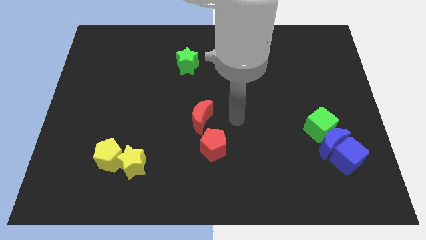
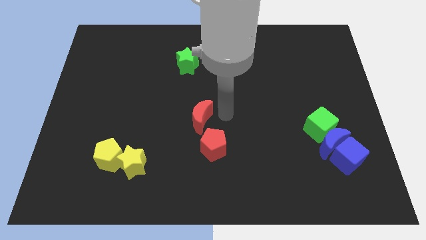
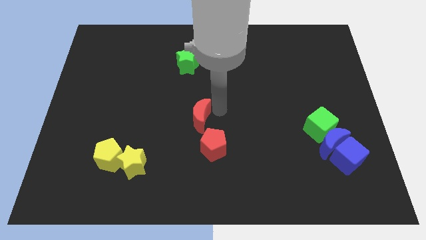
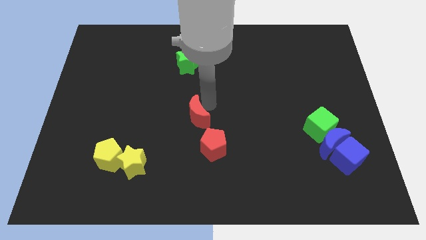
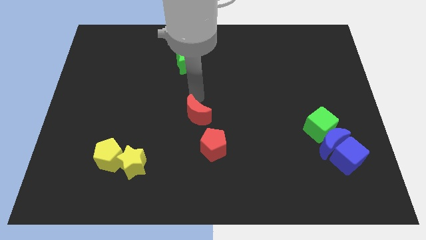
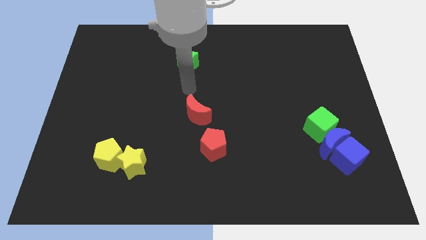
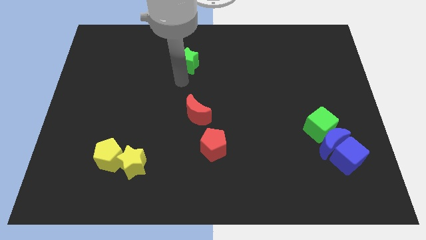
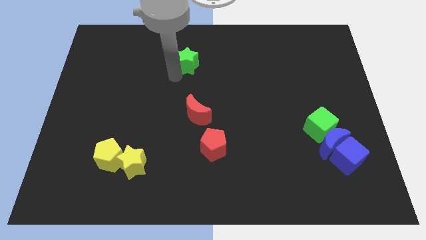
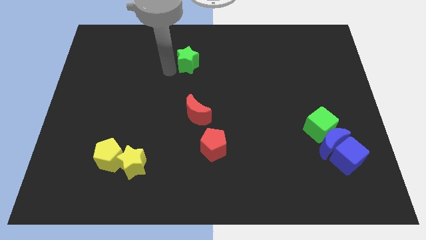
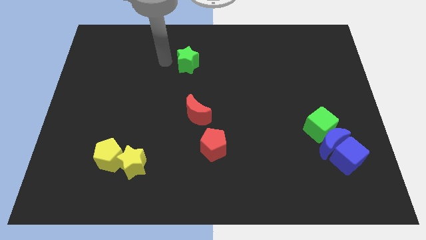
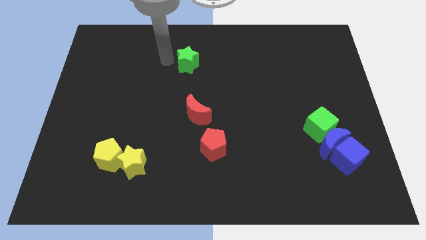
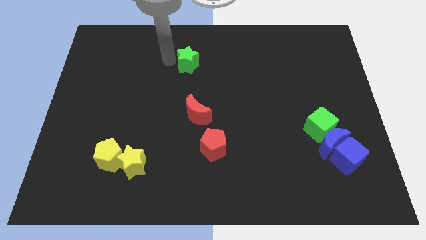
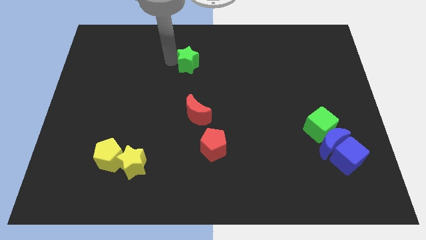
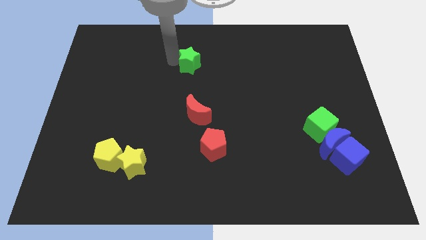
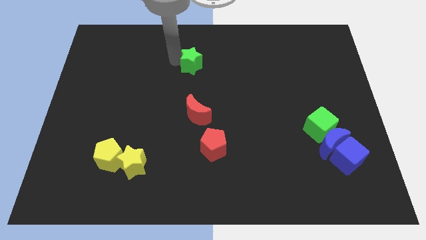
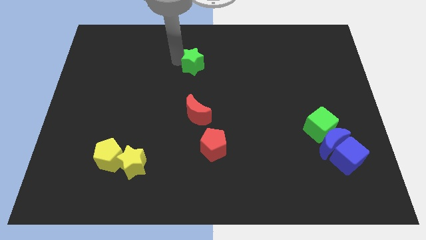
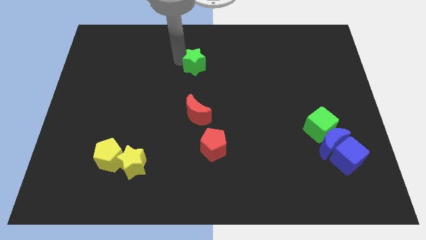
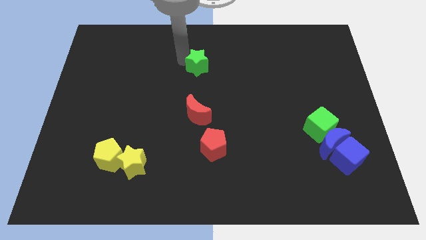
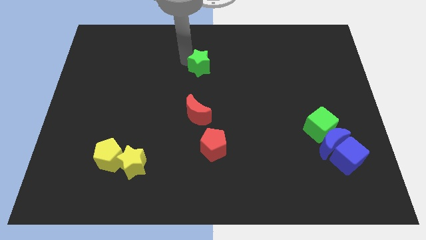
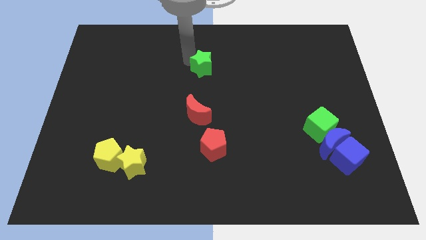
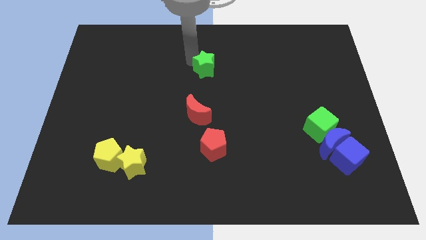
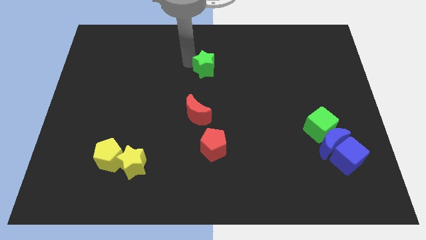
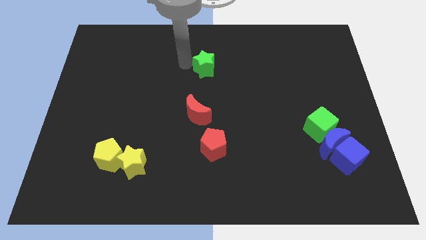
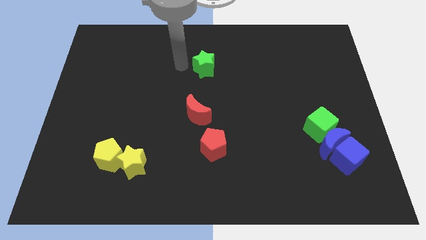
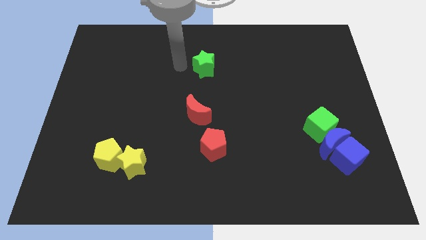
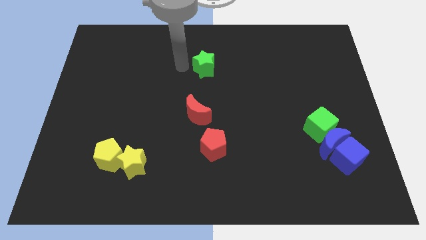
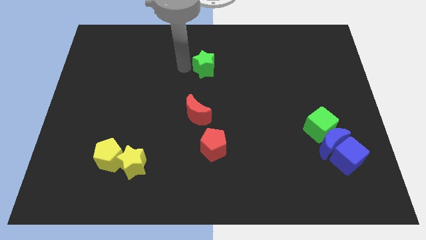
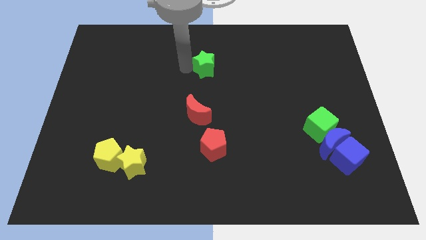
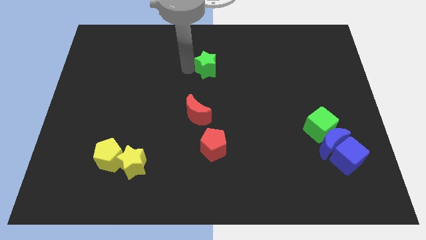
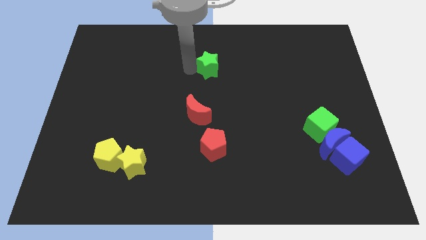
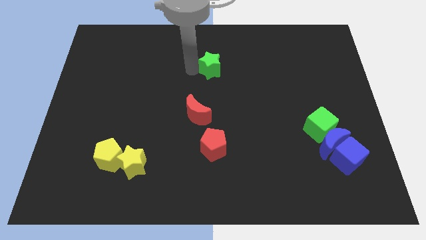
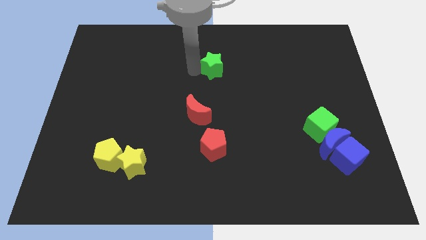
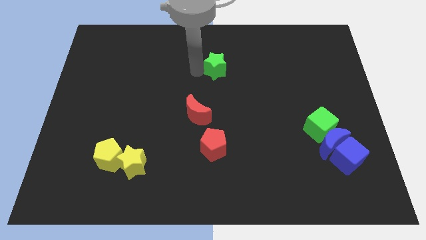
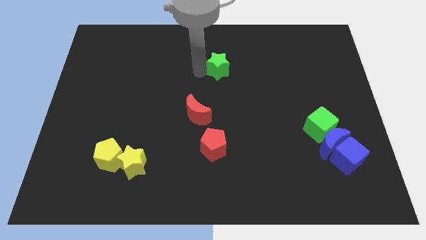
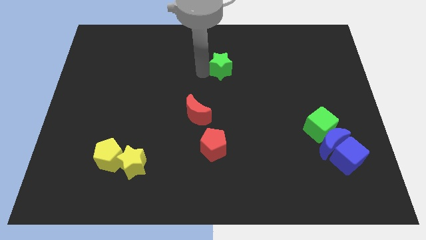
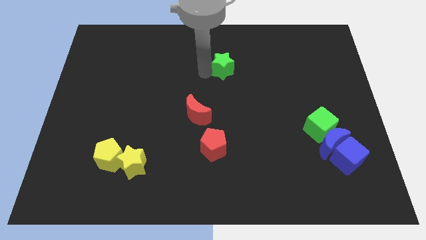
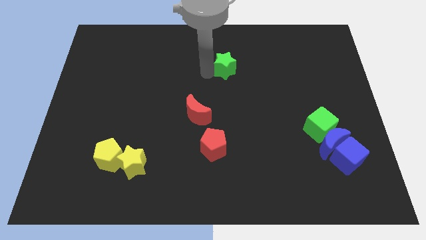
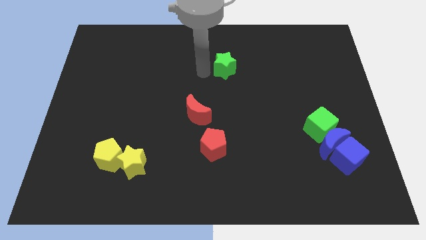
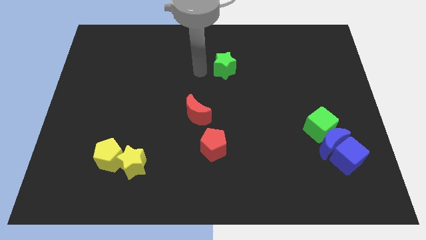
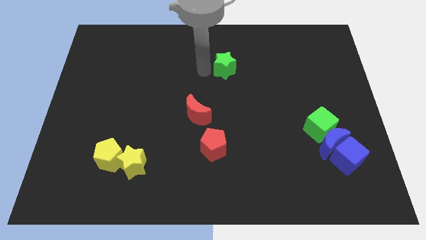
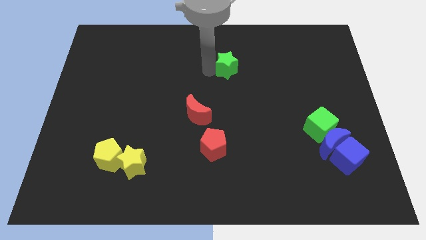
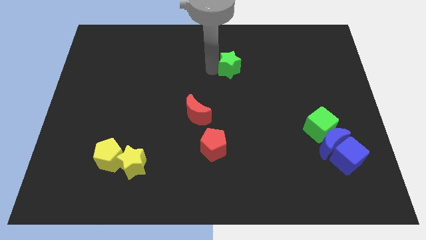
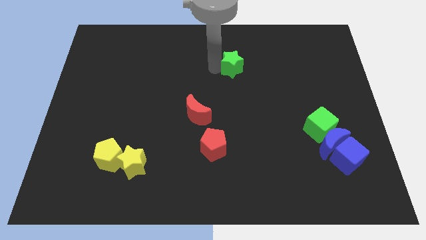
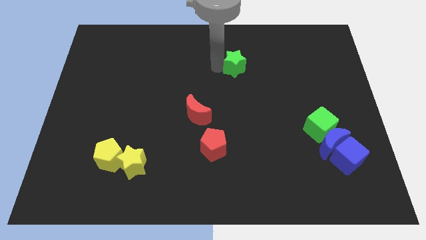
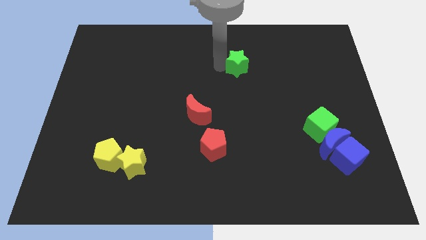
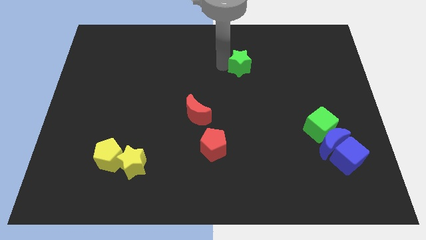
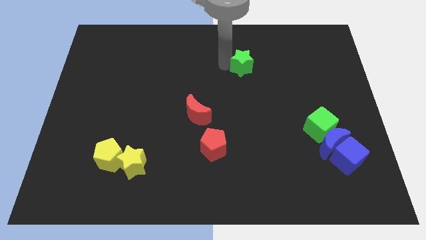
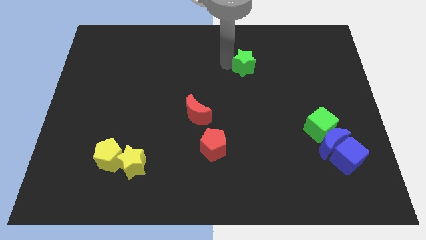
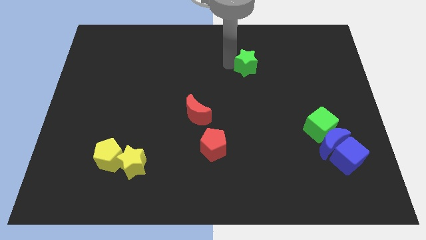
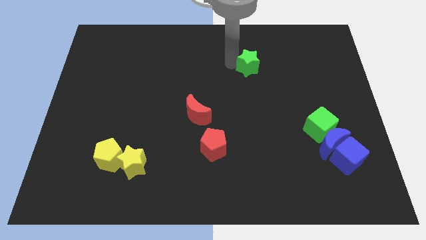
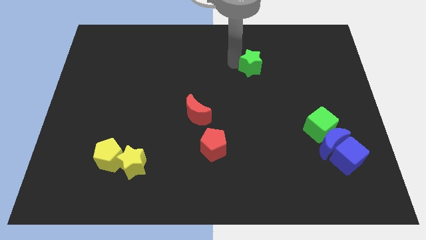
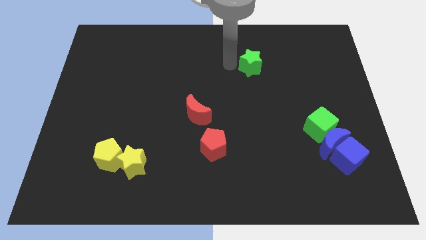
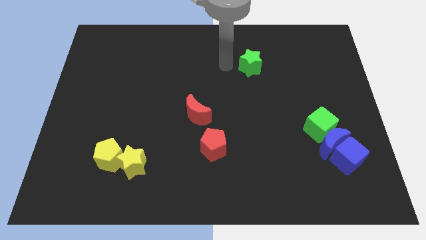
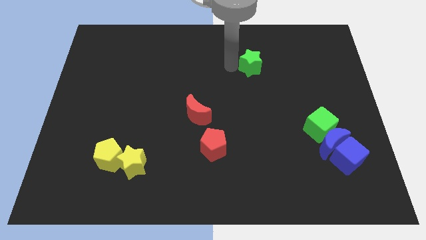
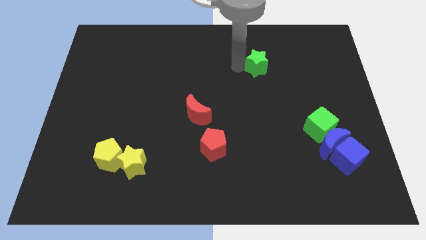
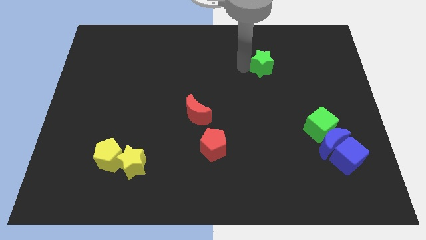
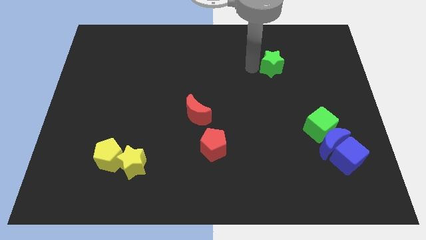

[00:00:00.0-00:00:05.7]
push the green star right

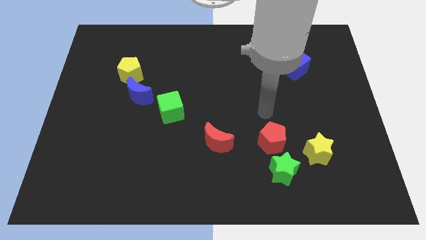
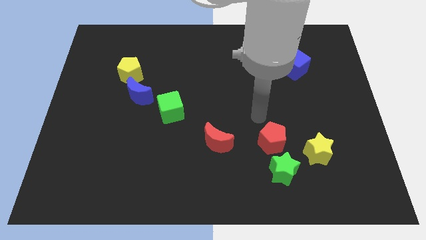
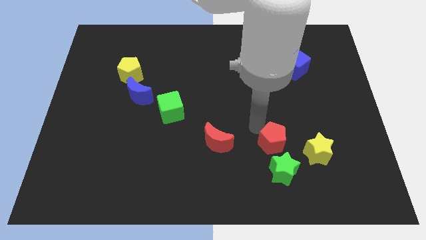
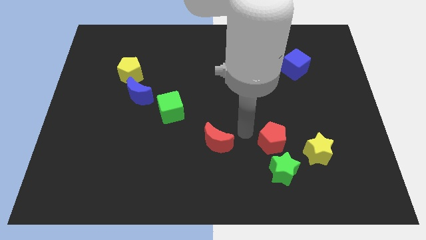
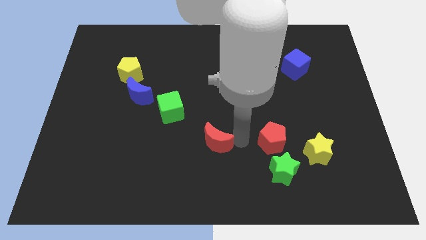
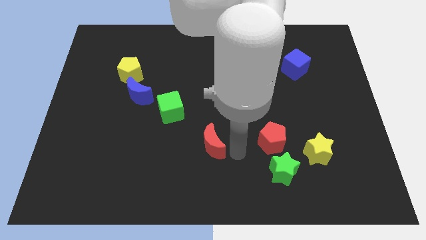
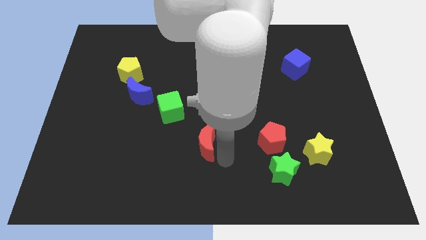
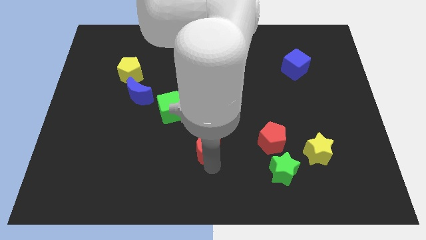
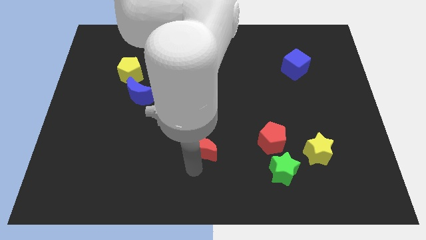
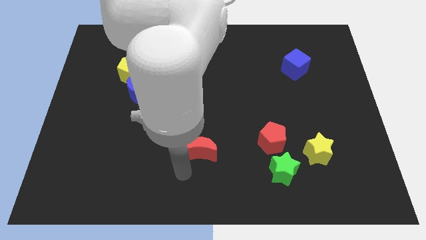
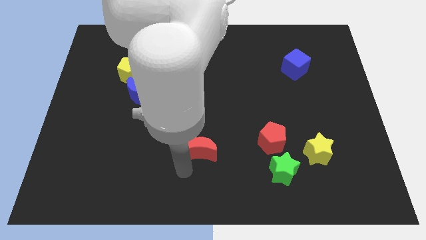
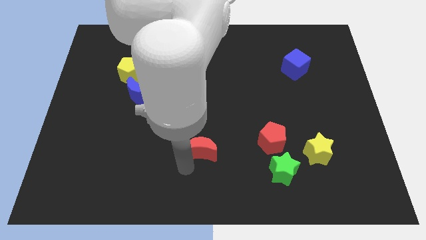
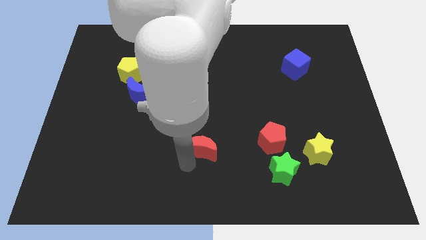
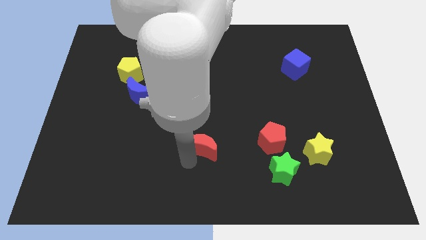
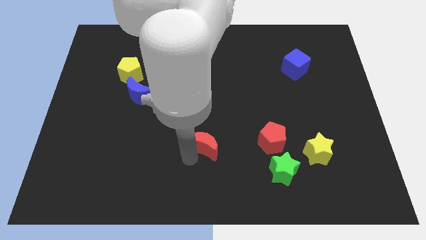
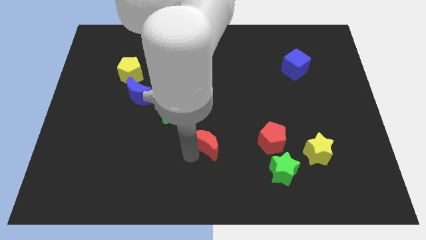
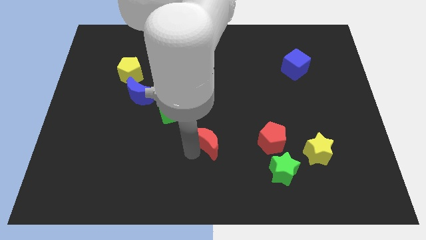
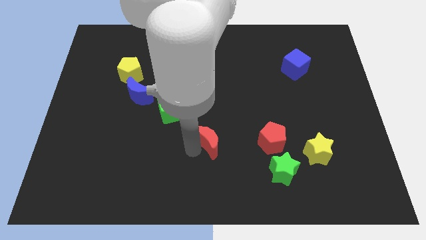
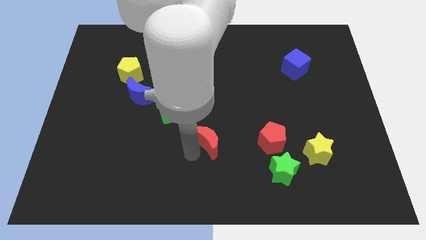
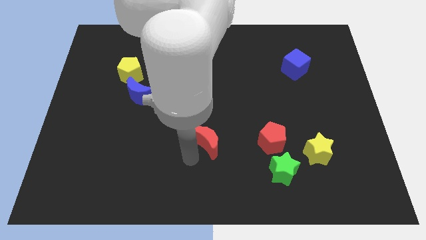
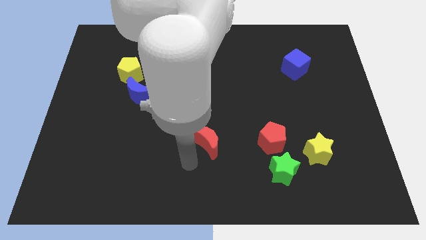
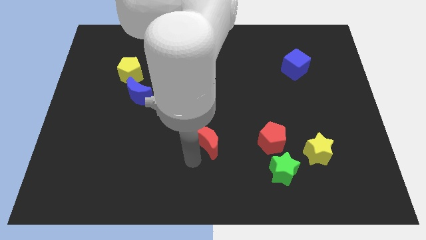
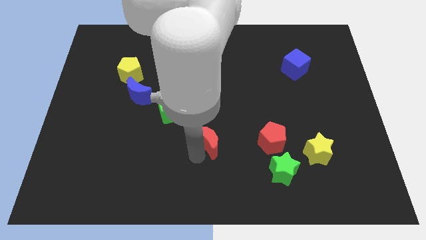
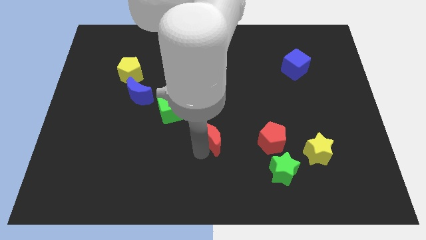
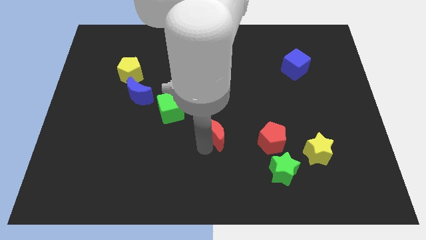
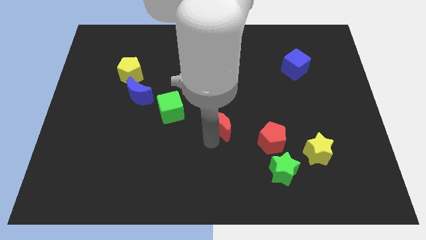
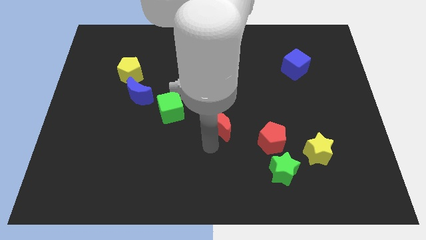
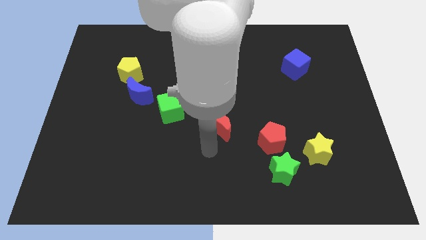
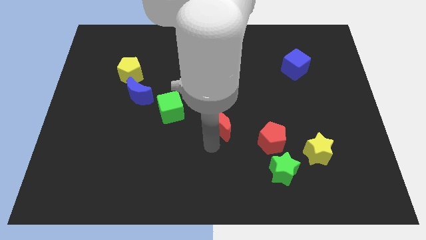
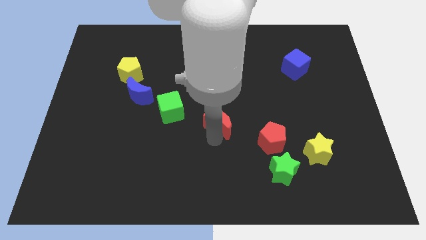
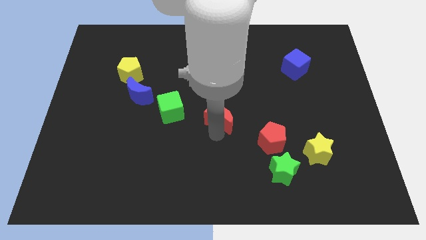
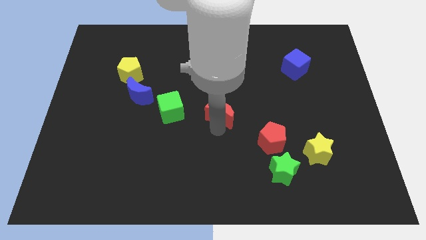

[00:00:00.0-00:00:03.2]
slightly push the red moon up
